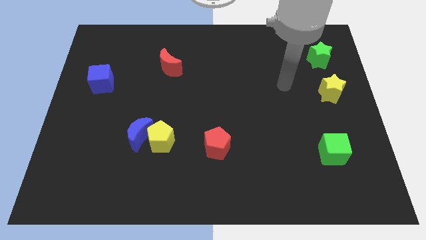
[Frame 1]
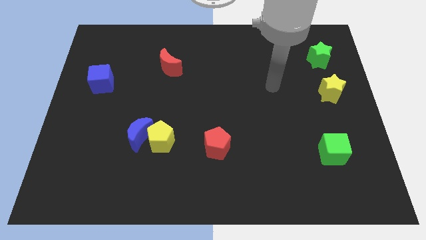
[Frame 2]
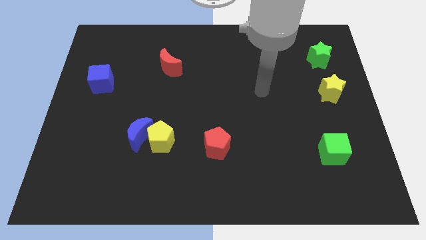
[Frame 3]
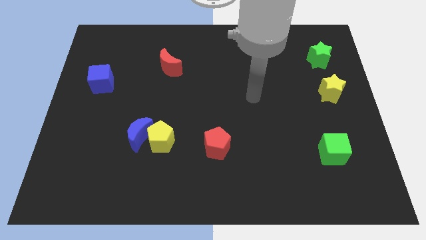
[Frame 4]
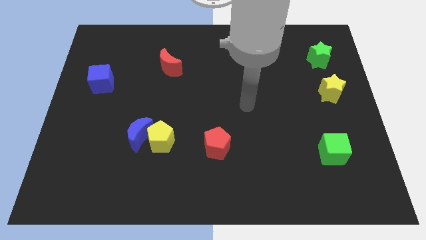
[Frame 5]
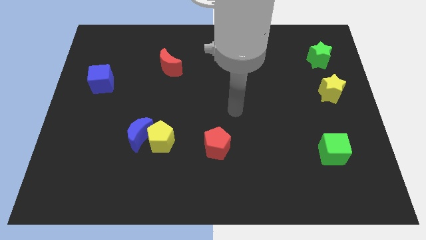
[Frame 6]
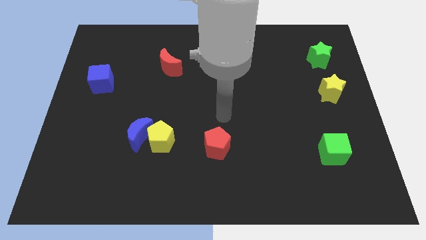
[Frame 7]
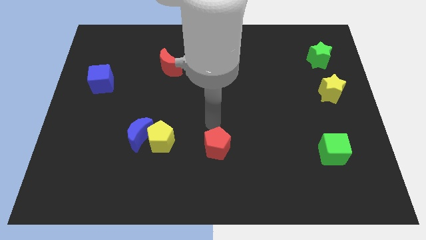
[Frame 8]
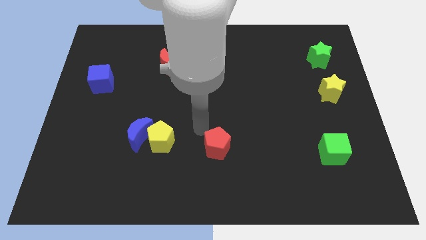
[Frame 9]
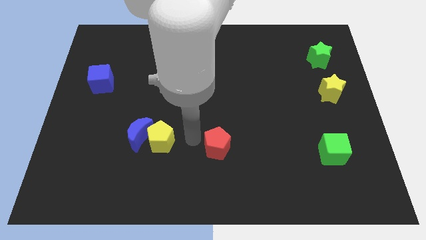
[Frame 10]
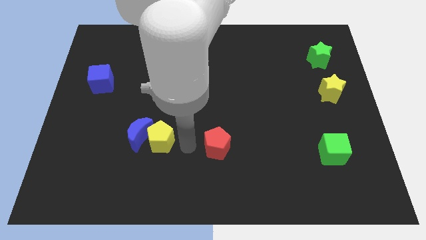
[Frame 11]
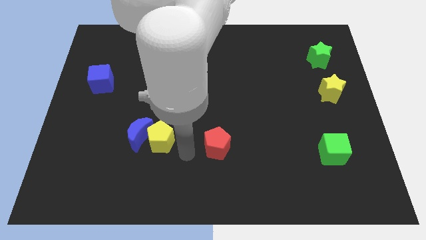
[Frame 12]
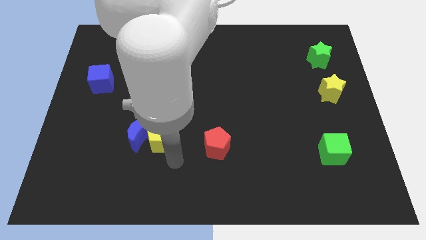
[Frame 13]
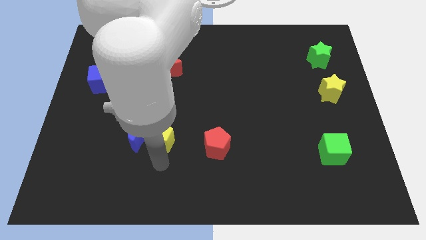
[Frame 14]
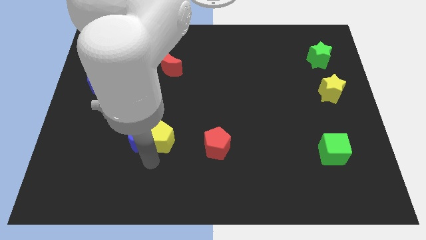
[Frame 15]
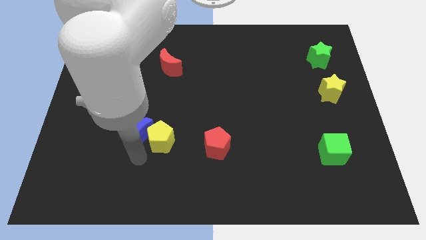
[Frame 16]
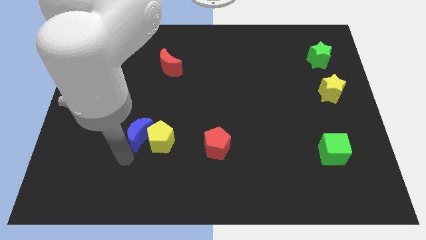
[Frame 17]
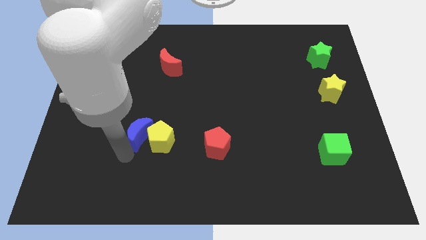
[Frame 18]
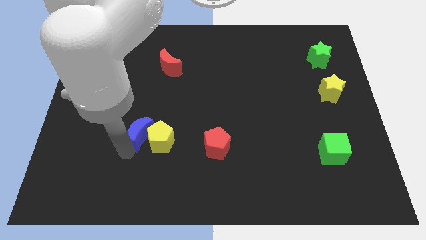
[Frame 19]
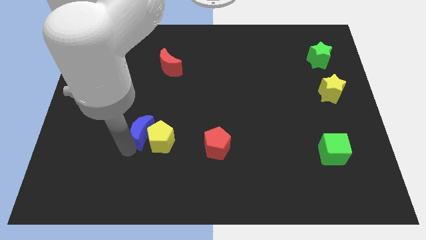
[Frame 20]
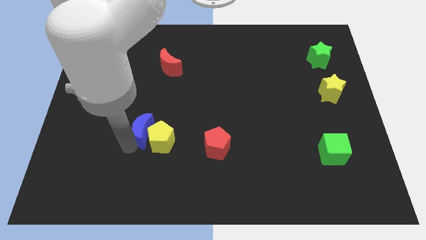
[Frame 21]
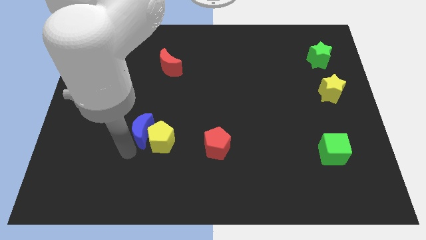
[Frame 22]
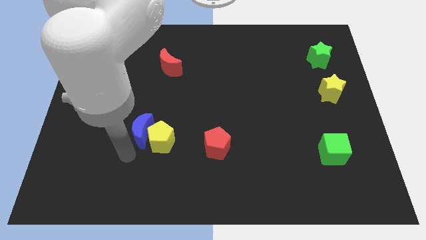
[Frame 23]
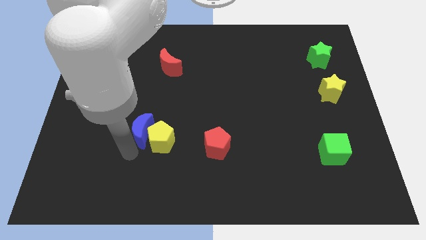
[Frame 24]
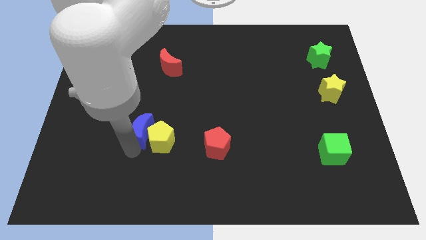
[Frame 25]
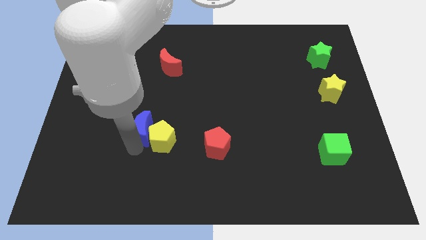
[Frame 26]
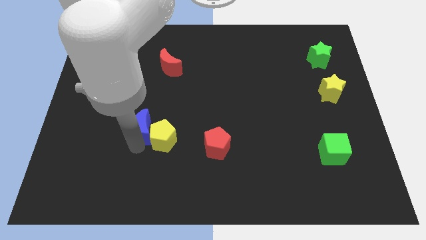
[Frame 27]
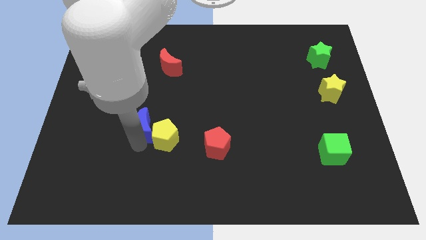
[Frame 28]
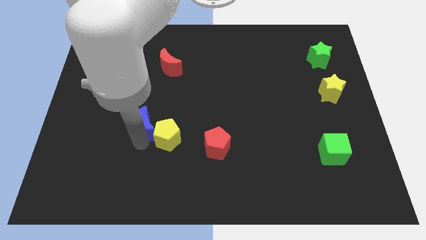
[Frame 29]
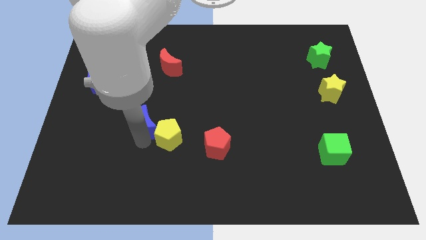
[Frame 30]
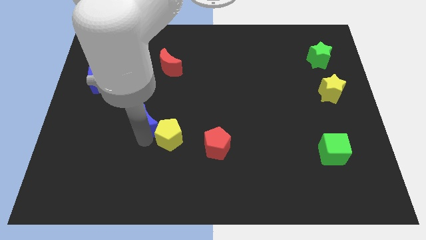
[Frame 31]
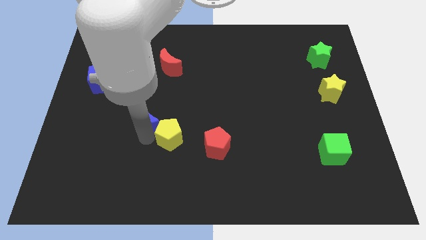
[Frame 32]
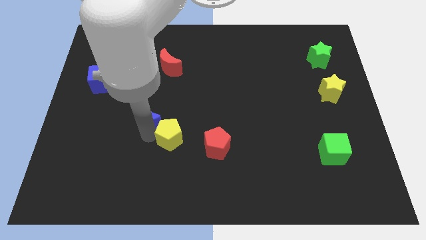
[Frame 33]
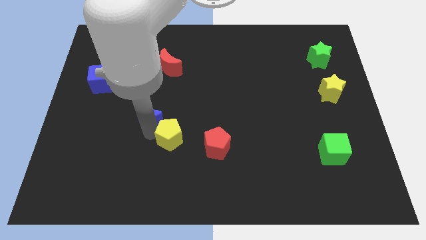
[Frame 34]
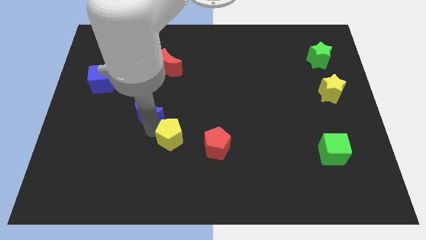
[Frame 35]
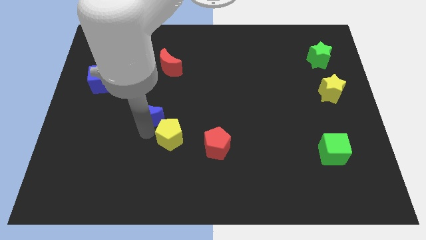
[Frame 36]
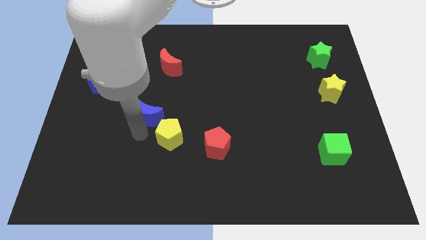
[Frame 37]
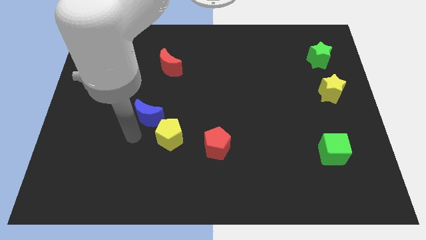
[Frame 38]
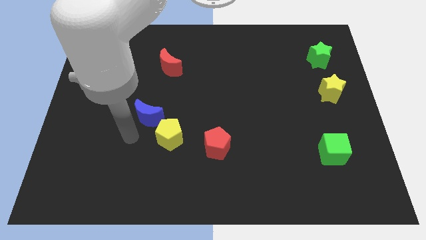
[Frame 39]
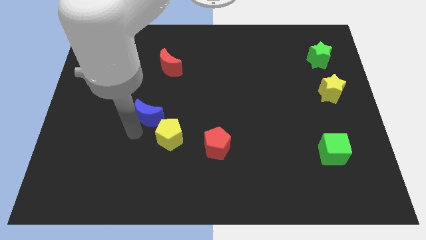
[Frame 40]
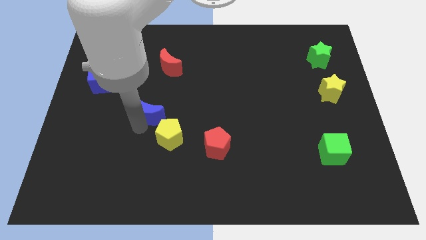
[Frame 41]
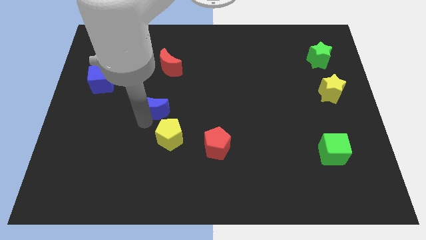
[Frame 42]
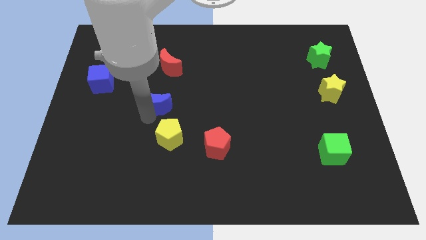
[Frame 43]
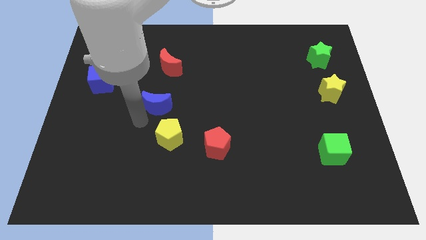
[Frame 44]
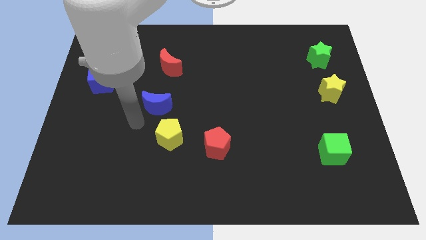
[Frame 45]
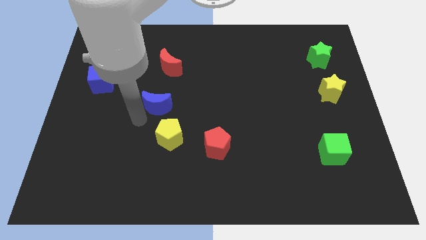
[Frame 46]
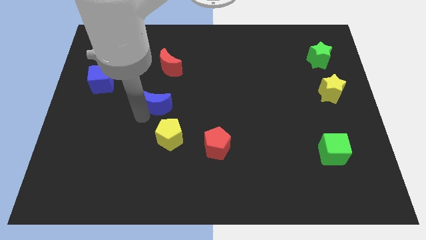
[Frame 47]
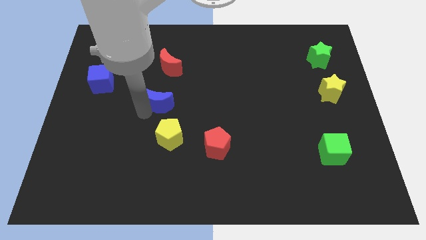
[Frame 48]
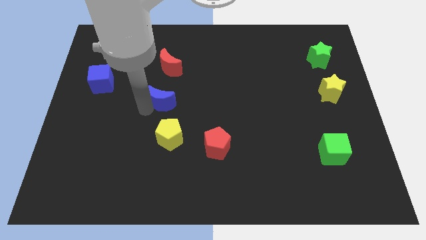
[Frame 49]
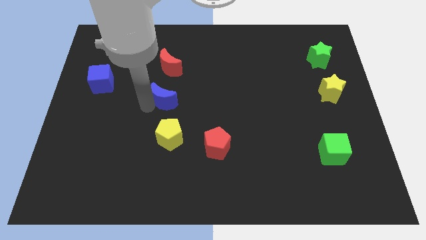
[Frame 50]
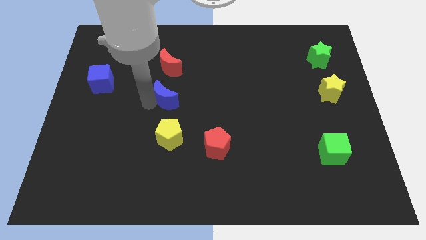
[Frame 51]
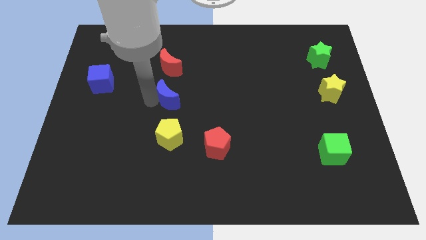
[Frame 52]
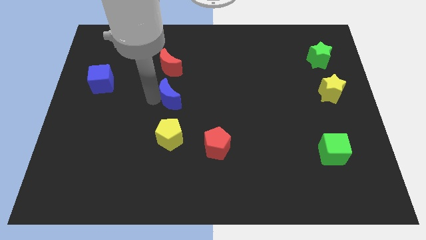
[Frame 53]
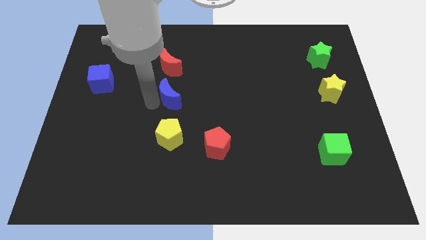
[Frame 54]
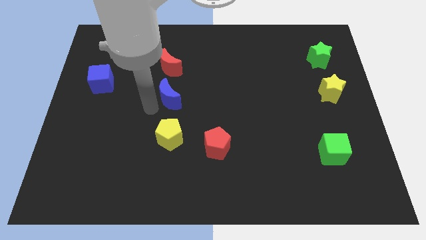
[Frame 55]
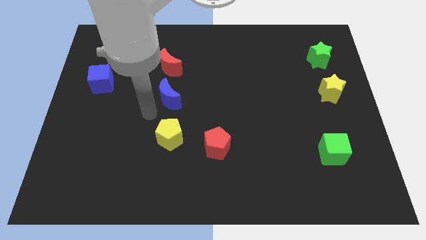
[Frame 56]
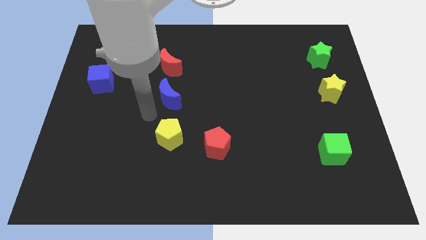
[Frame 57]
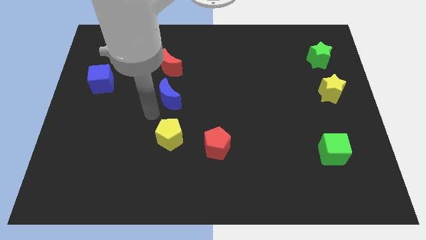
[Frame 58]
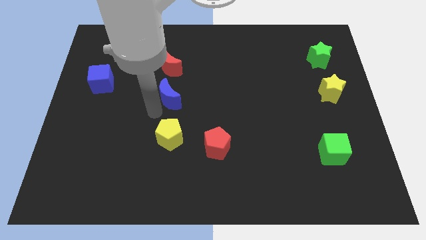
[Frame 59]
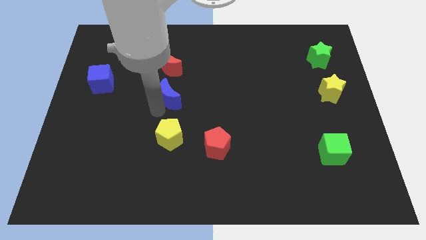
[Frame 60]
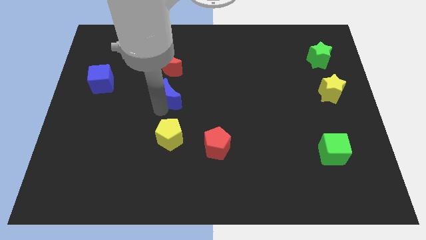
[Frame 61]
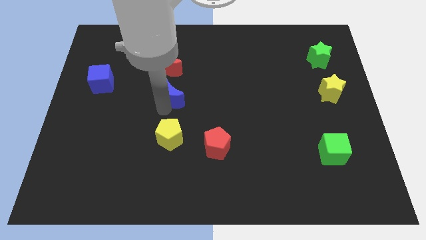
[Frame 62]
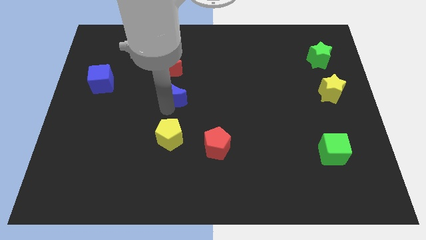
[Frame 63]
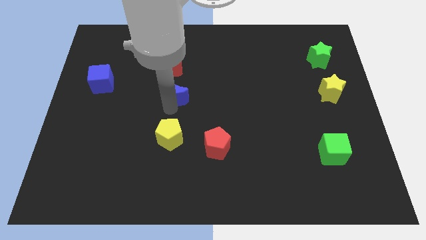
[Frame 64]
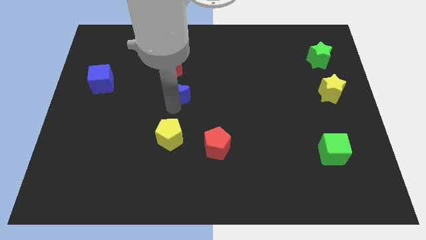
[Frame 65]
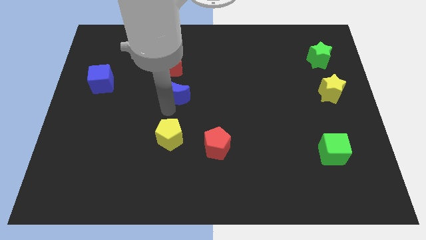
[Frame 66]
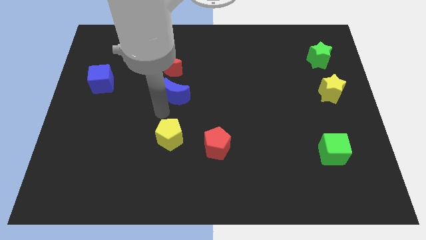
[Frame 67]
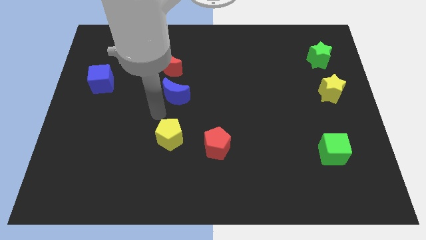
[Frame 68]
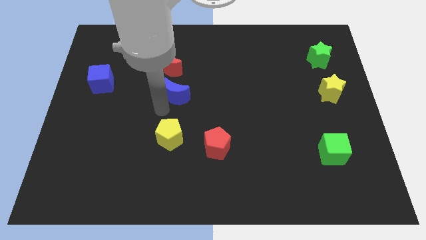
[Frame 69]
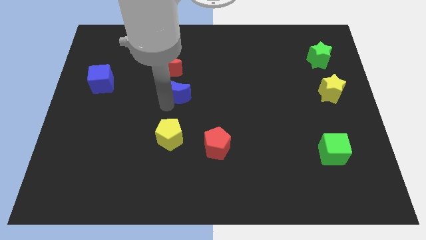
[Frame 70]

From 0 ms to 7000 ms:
push the blue moon to the bottom right of the red moon
